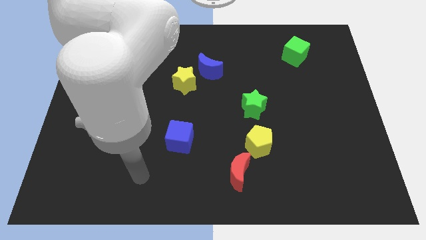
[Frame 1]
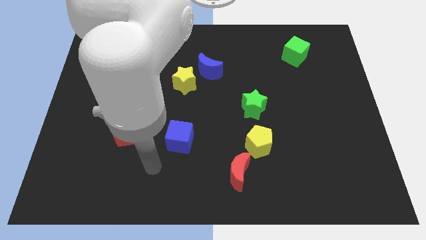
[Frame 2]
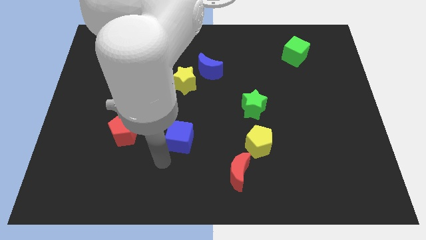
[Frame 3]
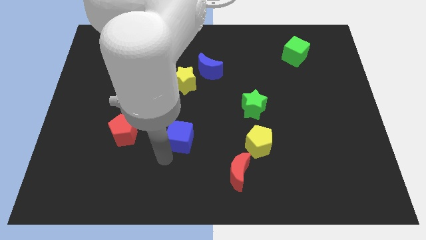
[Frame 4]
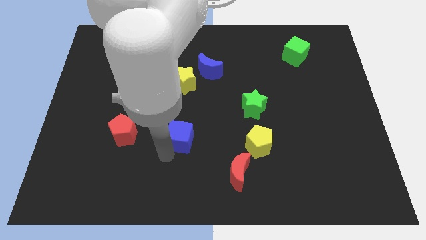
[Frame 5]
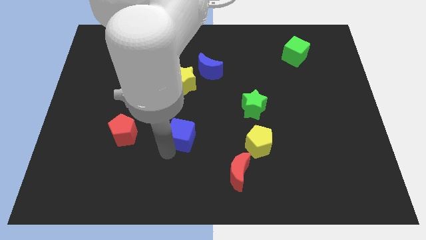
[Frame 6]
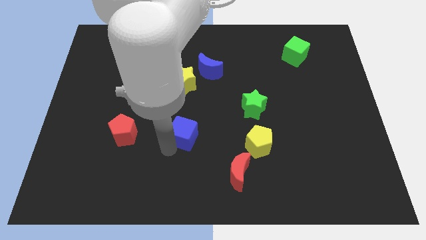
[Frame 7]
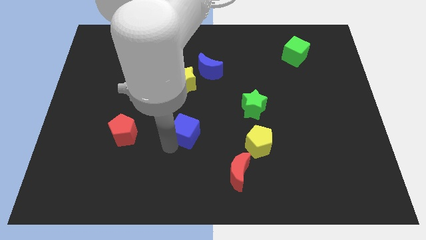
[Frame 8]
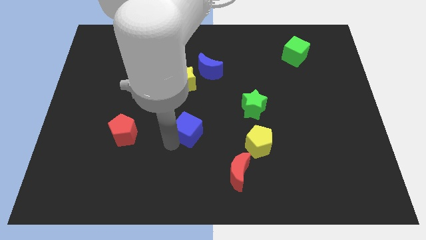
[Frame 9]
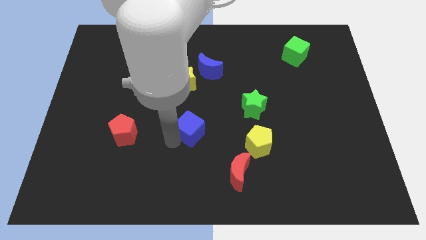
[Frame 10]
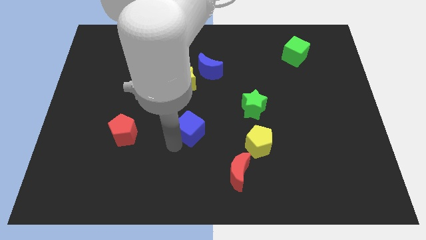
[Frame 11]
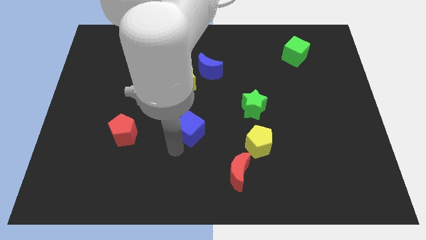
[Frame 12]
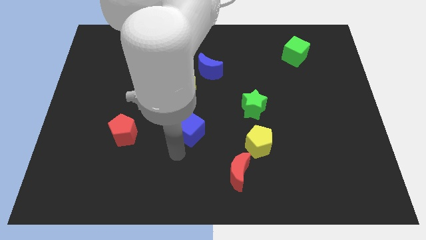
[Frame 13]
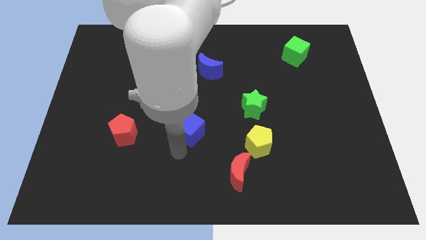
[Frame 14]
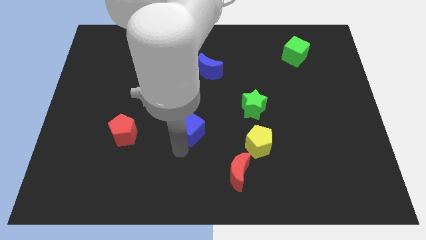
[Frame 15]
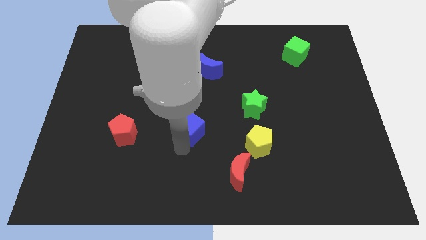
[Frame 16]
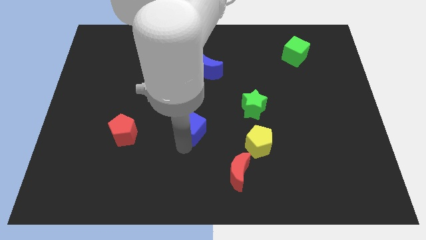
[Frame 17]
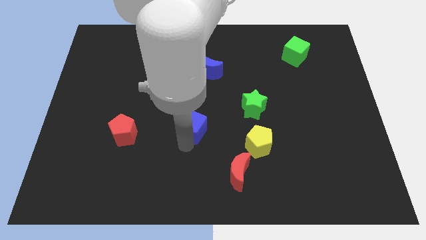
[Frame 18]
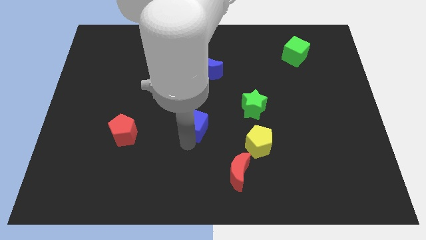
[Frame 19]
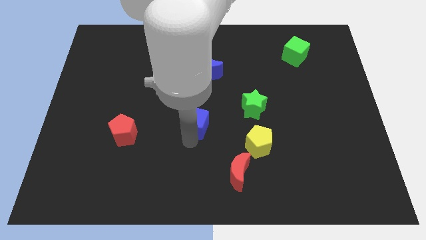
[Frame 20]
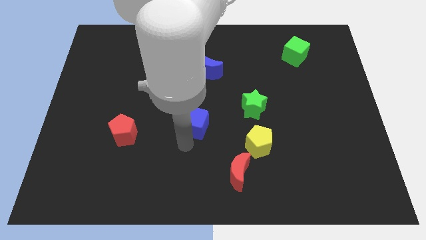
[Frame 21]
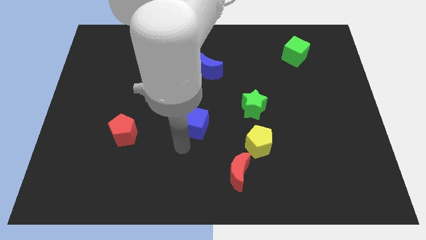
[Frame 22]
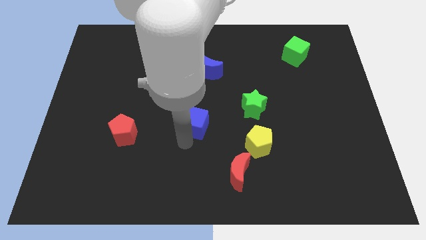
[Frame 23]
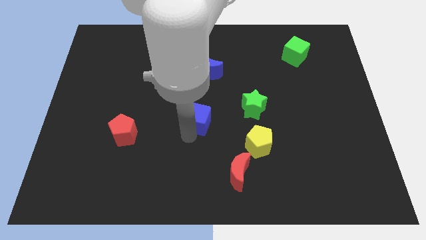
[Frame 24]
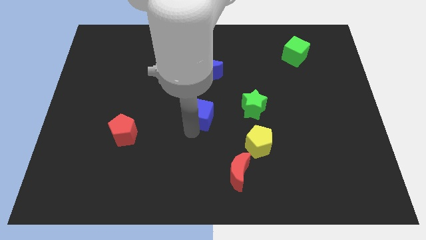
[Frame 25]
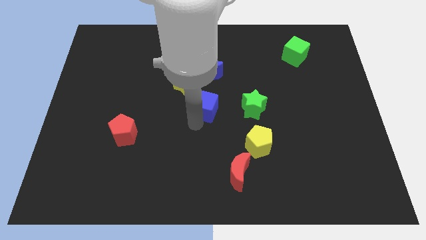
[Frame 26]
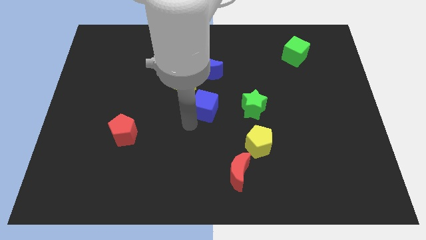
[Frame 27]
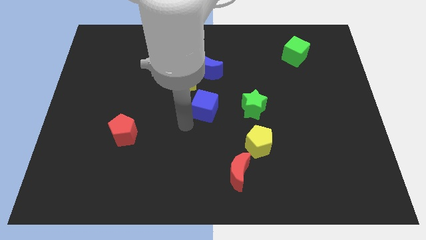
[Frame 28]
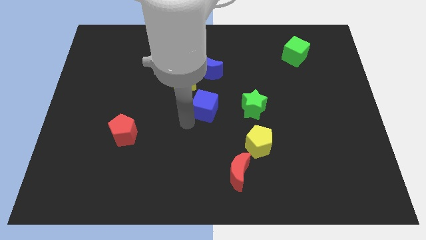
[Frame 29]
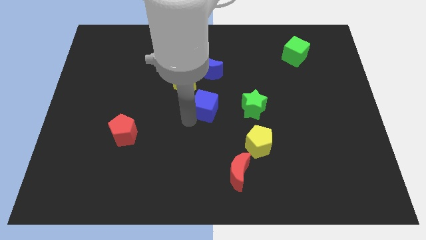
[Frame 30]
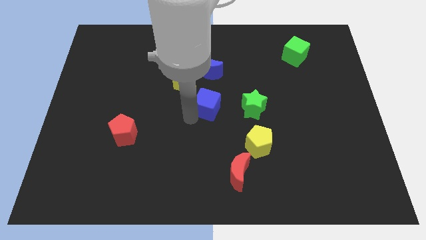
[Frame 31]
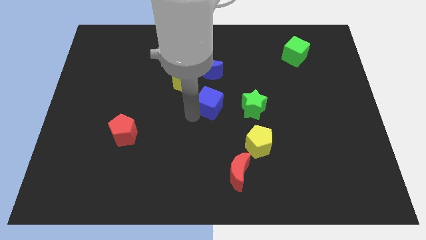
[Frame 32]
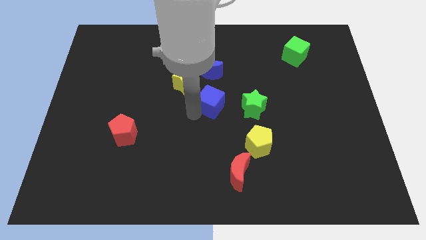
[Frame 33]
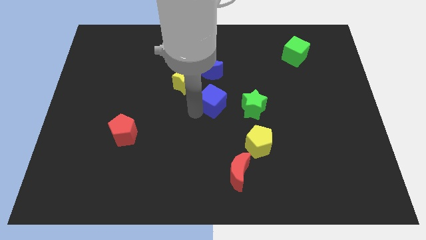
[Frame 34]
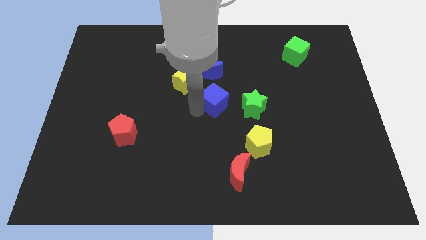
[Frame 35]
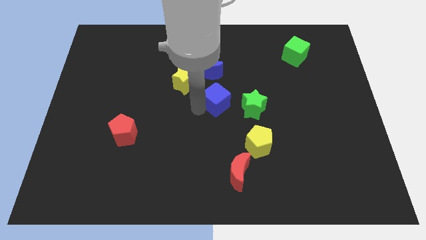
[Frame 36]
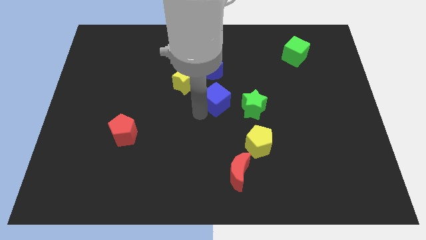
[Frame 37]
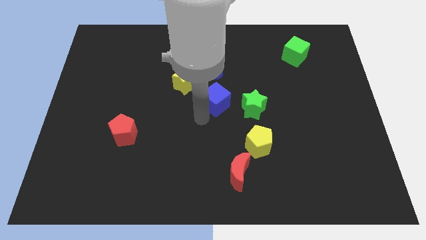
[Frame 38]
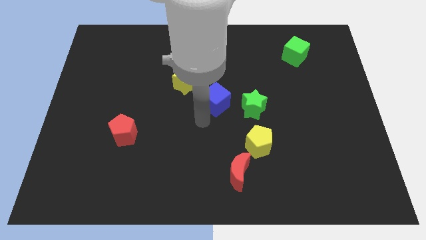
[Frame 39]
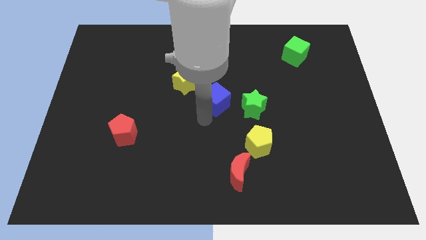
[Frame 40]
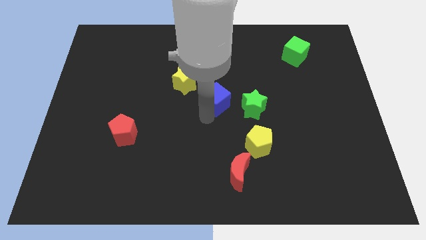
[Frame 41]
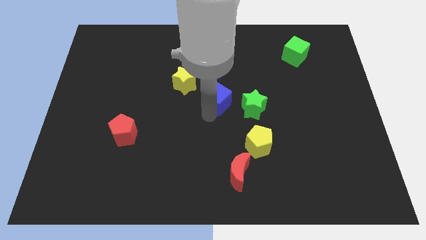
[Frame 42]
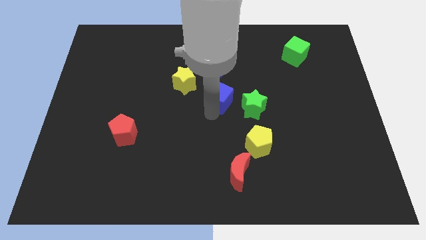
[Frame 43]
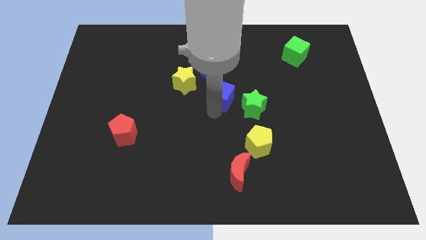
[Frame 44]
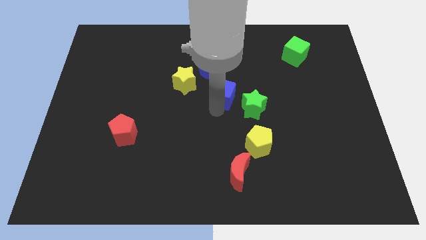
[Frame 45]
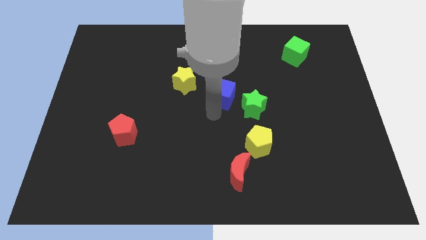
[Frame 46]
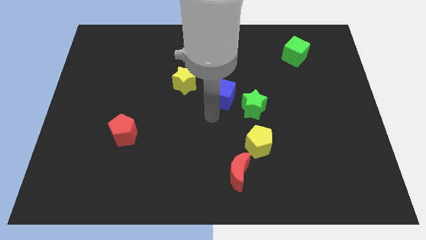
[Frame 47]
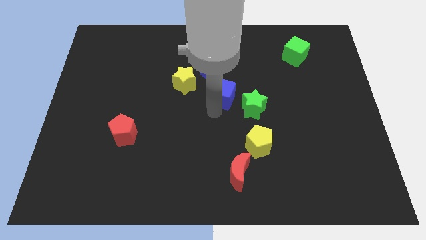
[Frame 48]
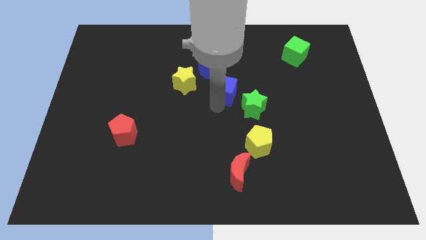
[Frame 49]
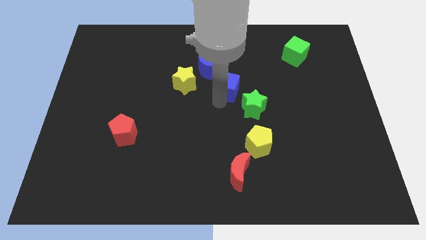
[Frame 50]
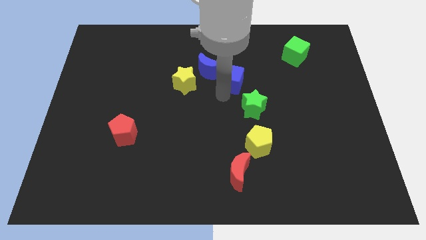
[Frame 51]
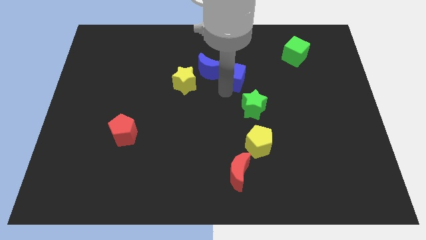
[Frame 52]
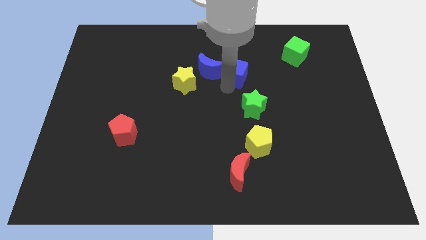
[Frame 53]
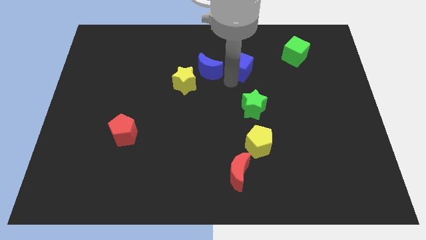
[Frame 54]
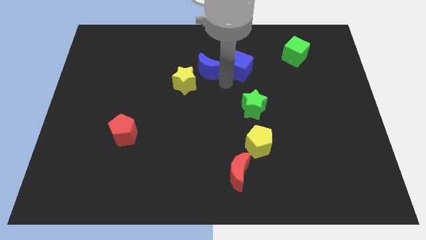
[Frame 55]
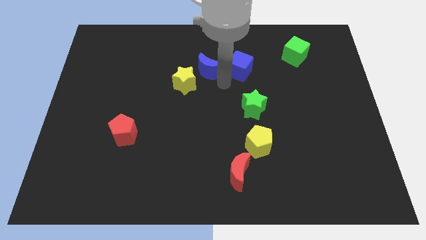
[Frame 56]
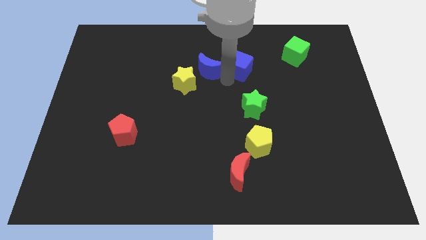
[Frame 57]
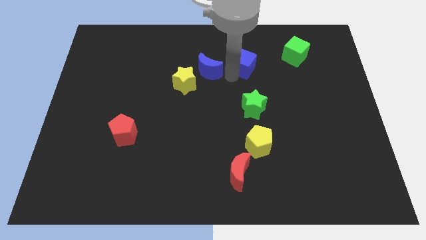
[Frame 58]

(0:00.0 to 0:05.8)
slide the blue cube to the left side of the green cube

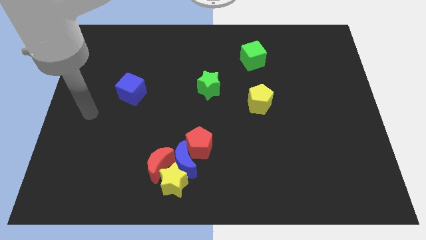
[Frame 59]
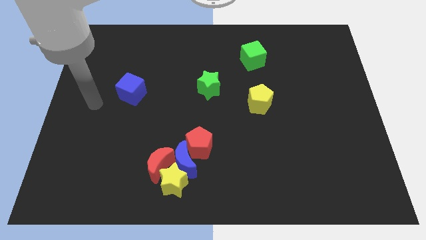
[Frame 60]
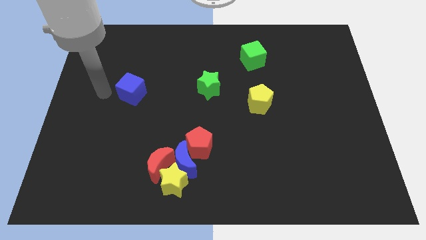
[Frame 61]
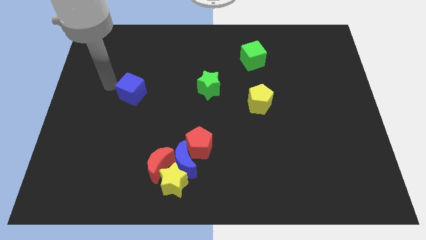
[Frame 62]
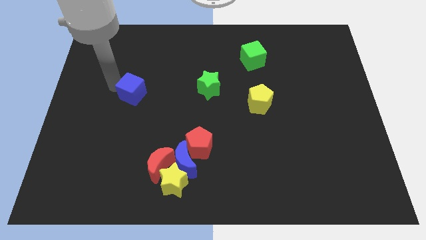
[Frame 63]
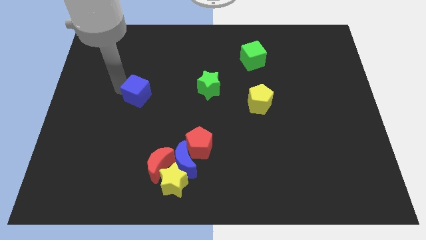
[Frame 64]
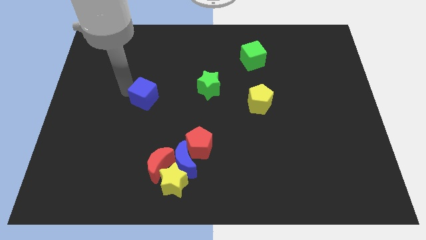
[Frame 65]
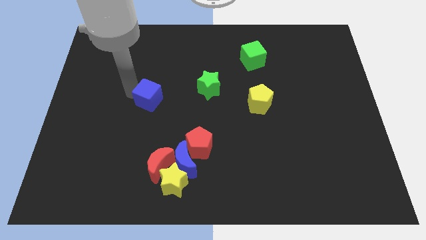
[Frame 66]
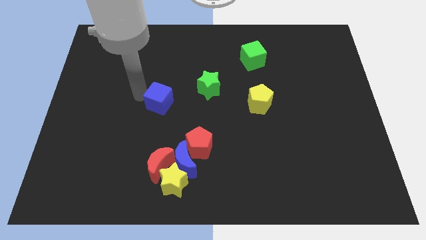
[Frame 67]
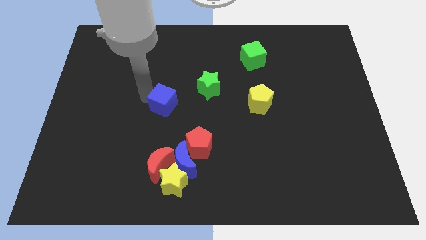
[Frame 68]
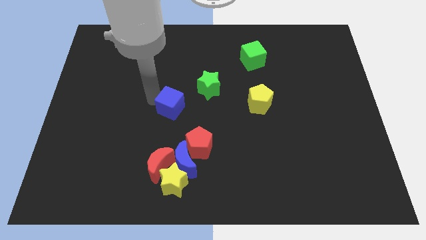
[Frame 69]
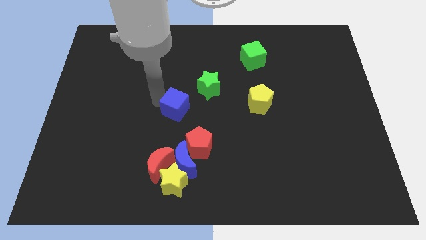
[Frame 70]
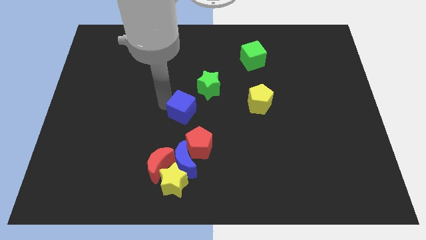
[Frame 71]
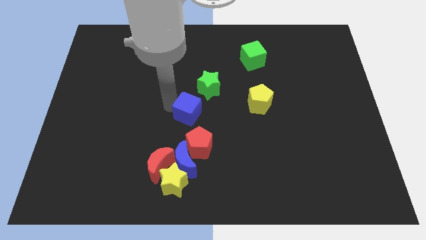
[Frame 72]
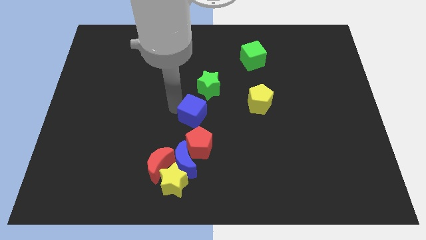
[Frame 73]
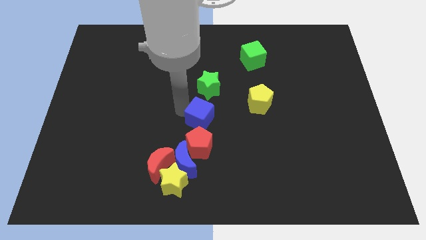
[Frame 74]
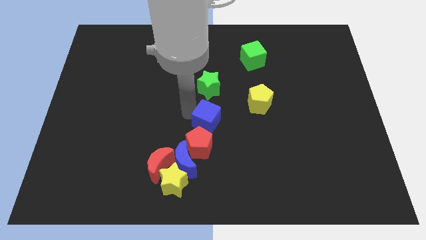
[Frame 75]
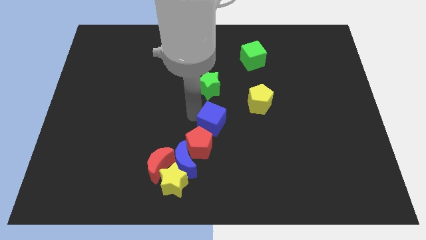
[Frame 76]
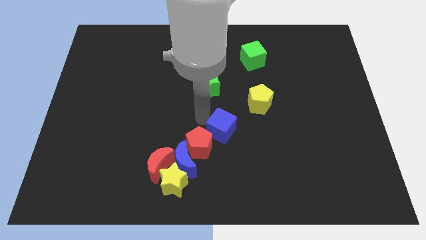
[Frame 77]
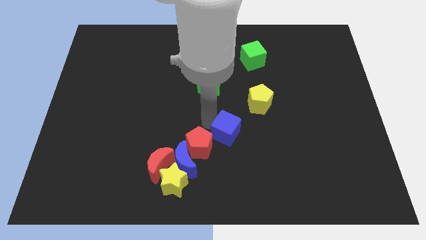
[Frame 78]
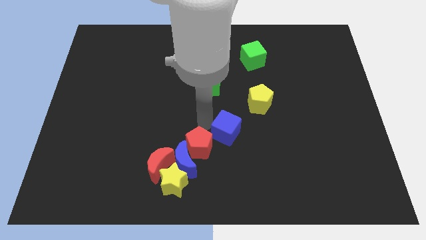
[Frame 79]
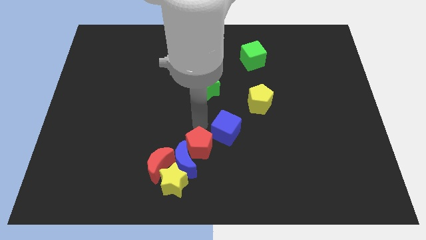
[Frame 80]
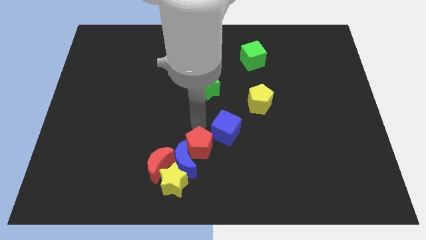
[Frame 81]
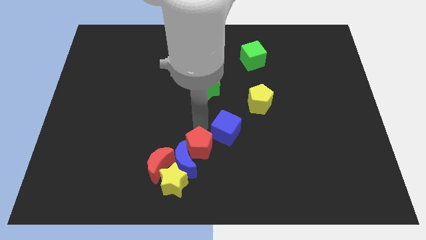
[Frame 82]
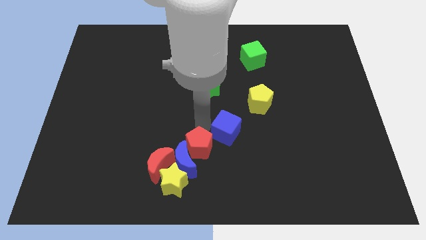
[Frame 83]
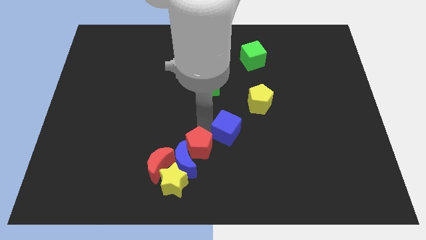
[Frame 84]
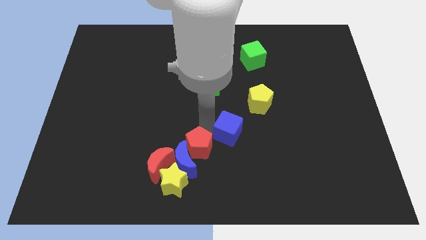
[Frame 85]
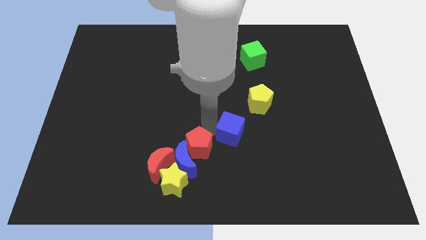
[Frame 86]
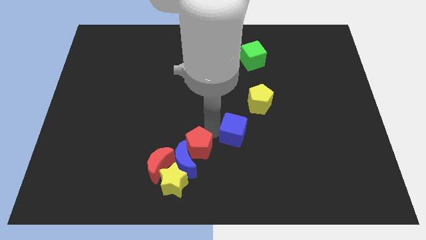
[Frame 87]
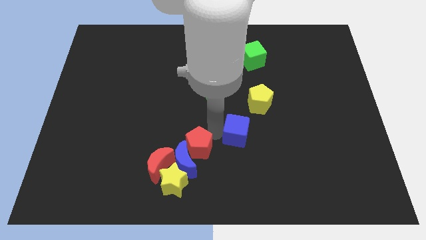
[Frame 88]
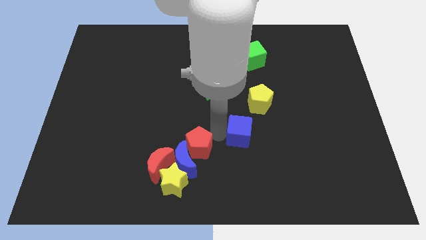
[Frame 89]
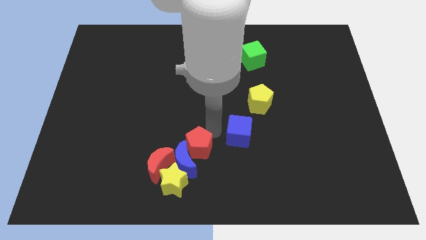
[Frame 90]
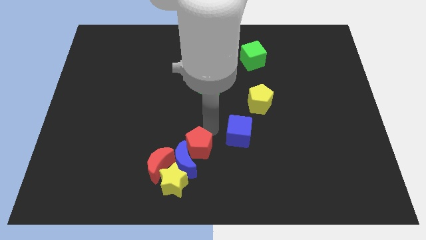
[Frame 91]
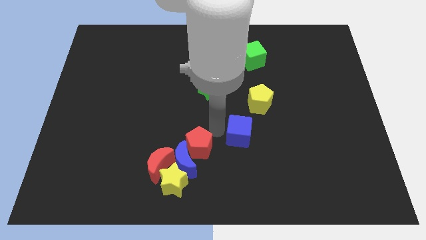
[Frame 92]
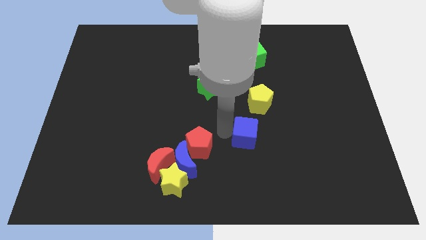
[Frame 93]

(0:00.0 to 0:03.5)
move the blue cube to the bottom side of the yellow pentagon
